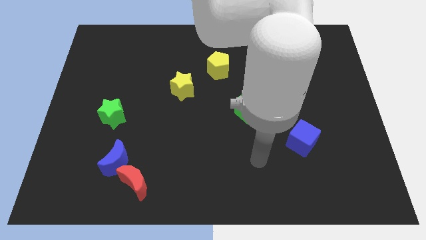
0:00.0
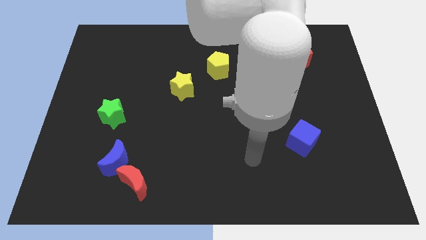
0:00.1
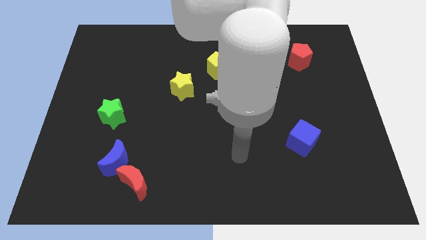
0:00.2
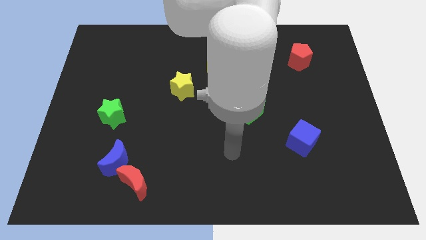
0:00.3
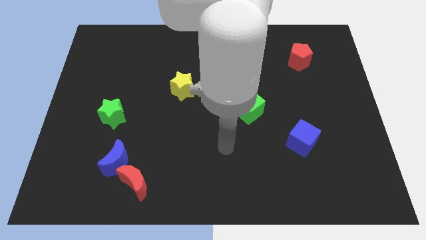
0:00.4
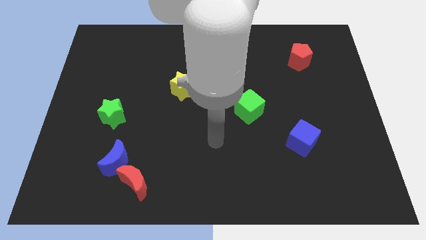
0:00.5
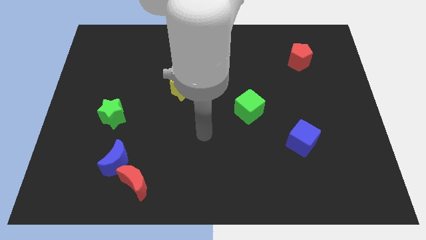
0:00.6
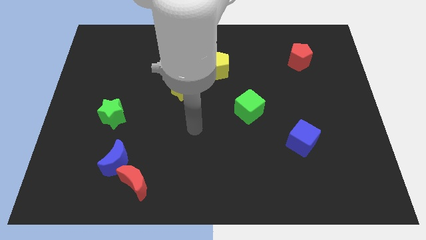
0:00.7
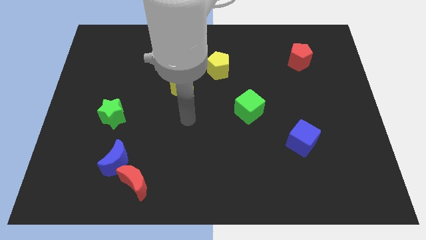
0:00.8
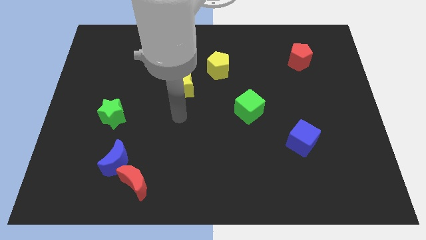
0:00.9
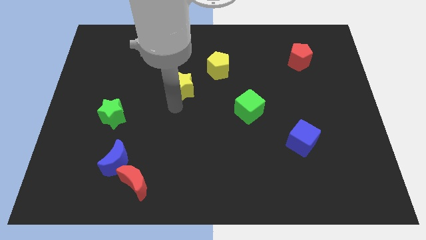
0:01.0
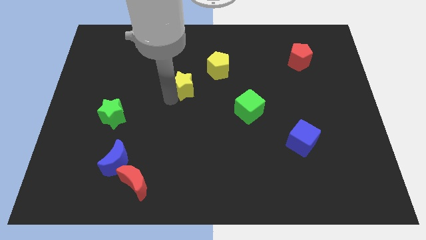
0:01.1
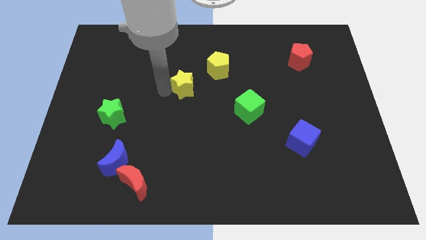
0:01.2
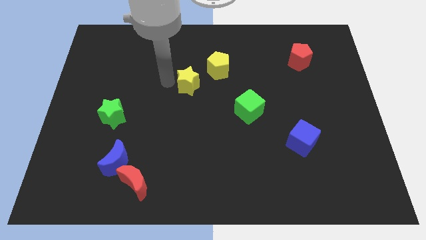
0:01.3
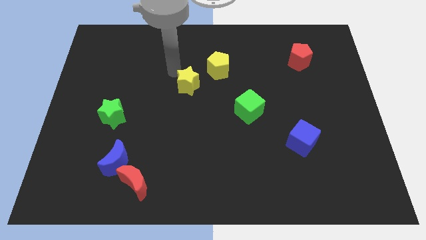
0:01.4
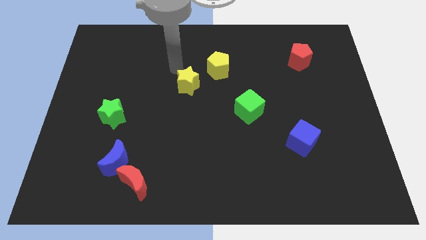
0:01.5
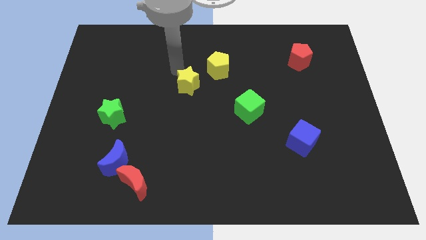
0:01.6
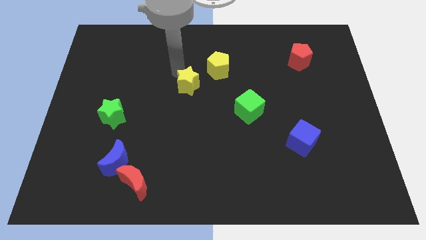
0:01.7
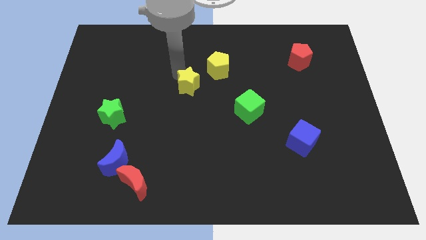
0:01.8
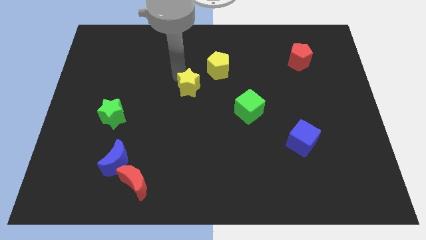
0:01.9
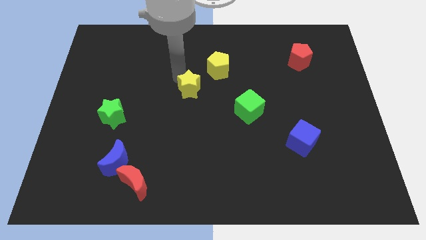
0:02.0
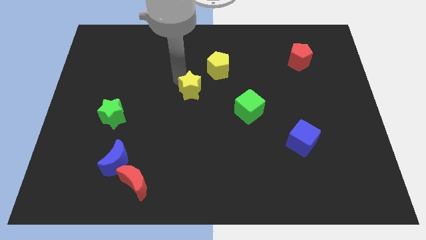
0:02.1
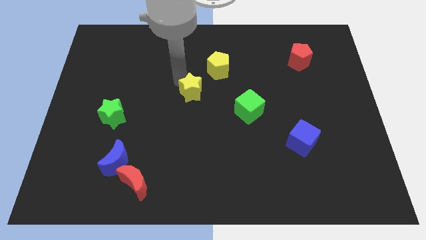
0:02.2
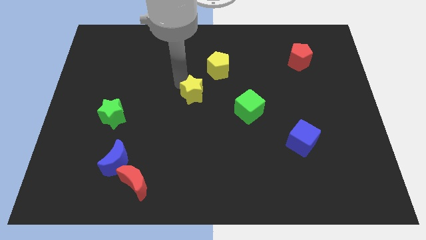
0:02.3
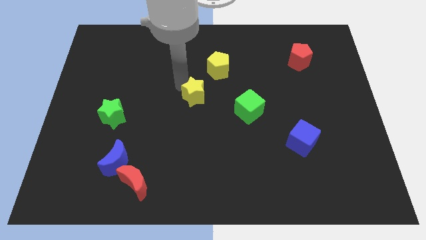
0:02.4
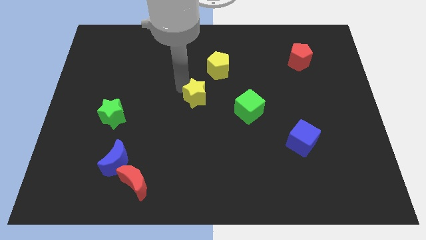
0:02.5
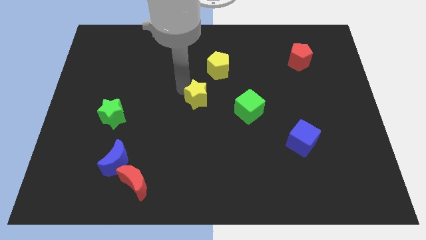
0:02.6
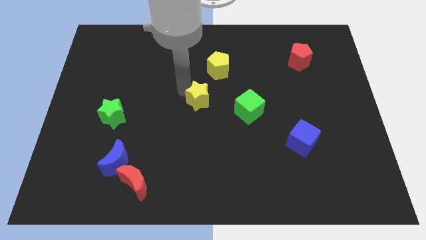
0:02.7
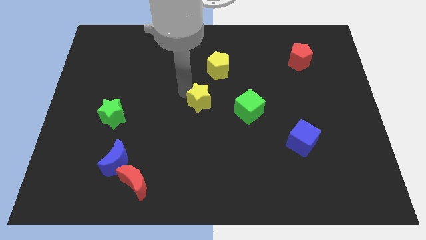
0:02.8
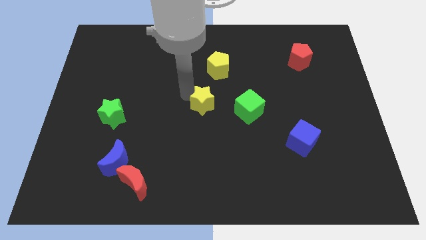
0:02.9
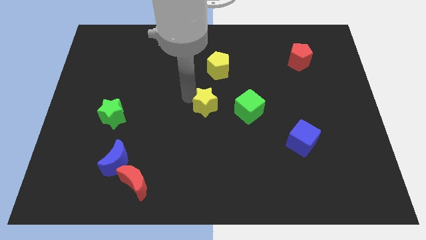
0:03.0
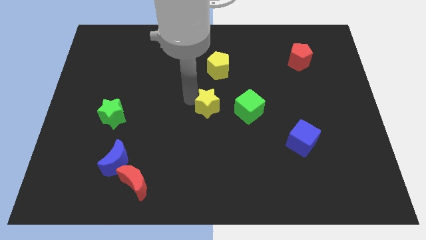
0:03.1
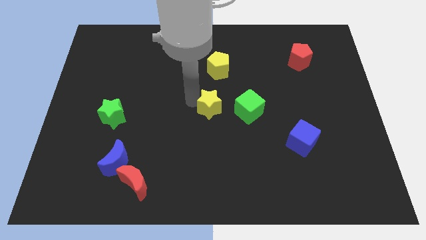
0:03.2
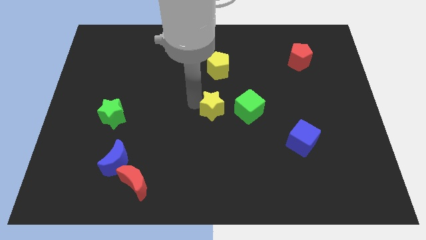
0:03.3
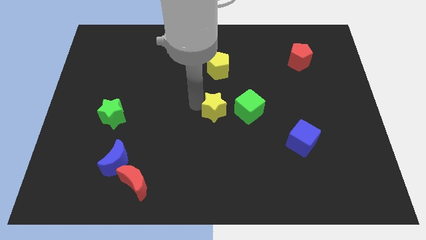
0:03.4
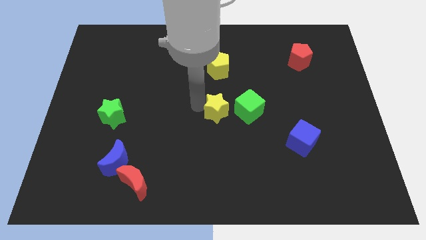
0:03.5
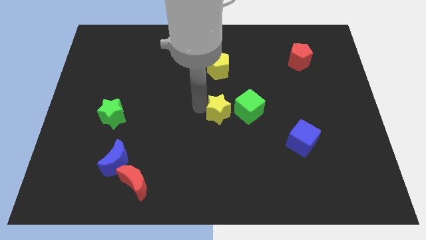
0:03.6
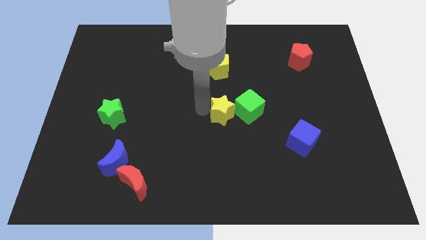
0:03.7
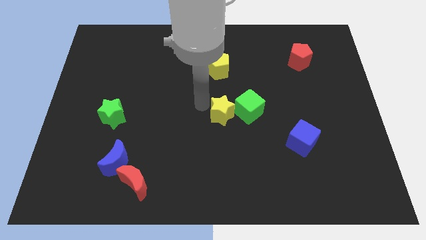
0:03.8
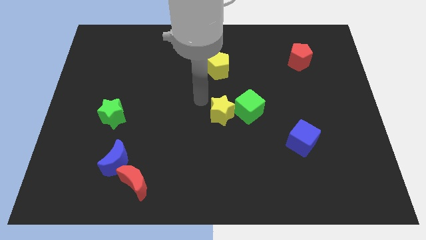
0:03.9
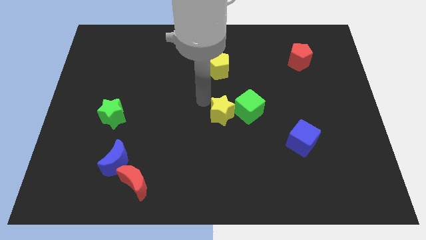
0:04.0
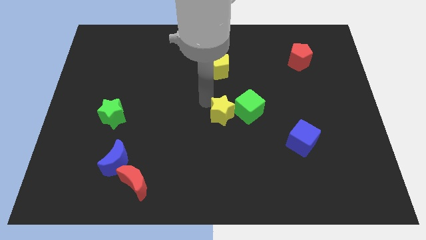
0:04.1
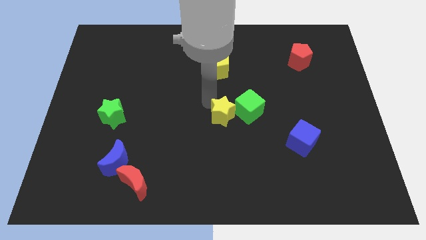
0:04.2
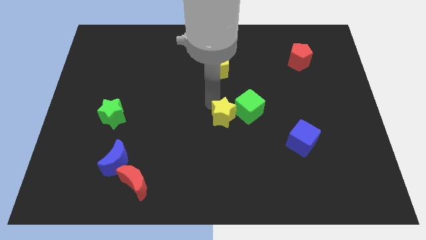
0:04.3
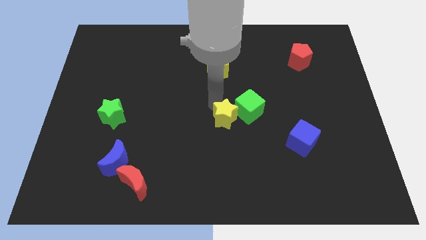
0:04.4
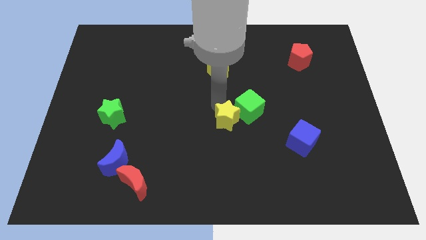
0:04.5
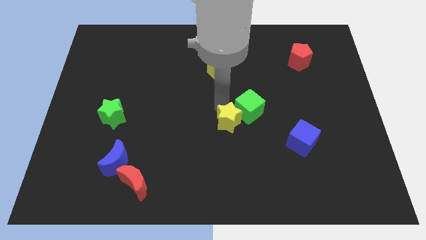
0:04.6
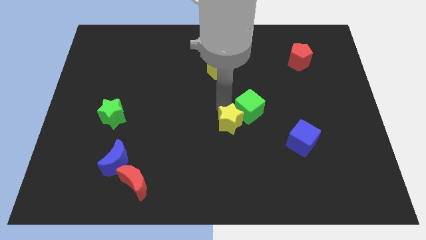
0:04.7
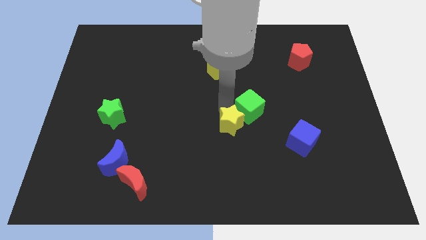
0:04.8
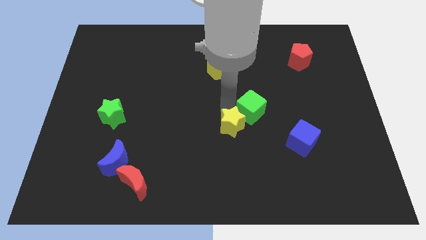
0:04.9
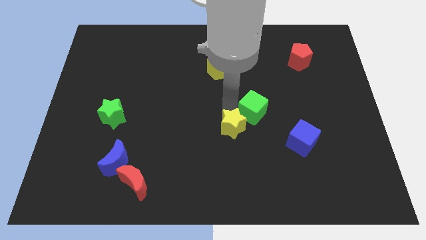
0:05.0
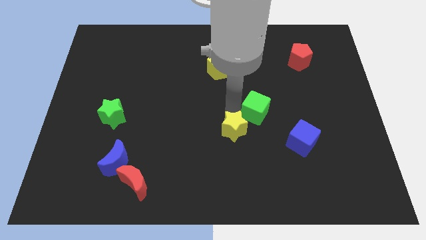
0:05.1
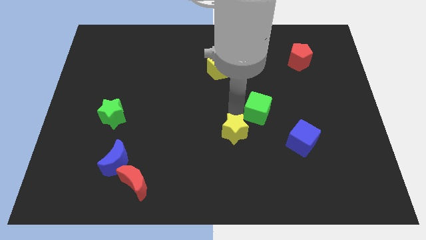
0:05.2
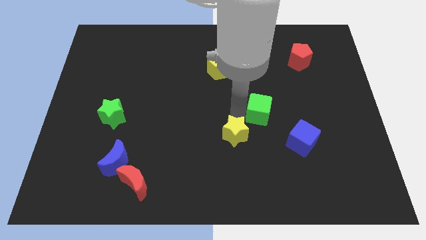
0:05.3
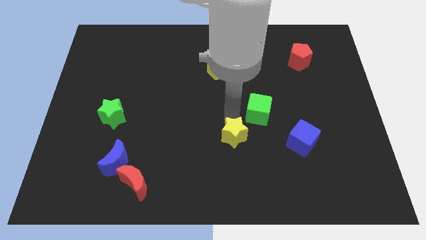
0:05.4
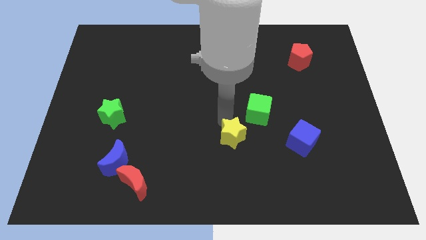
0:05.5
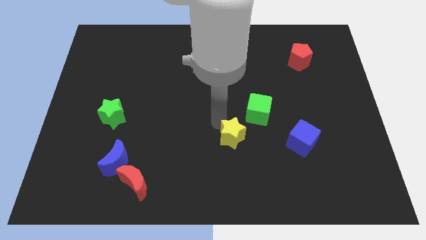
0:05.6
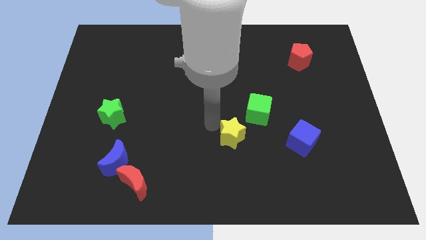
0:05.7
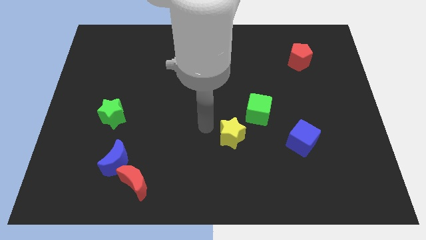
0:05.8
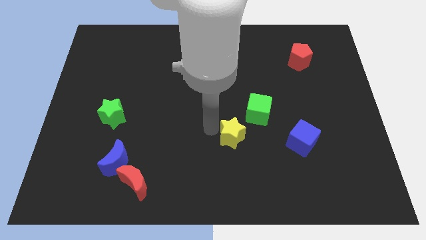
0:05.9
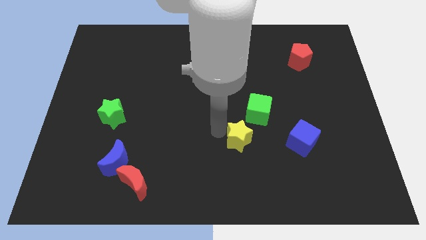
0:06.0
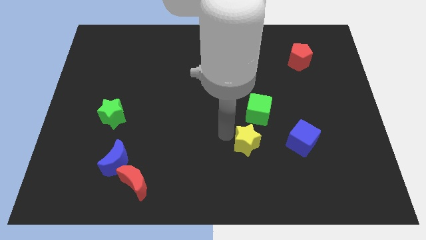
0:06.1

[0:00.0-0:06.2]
move the yellow star diagonally downwards and right

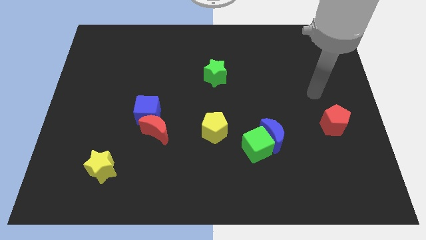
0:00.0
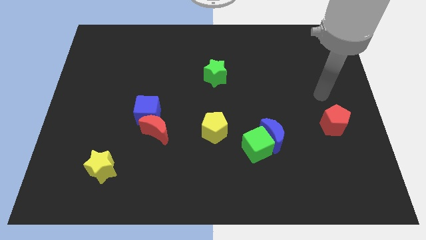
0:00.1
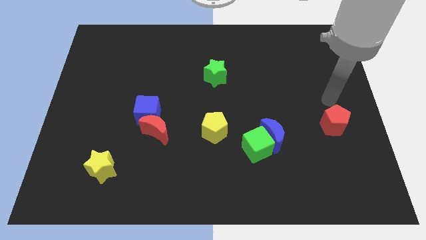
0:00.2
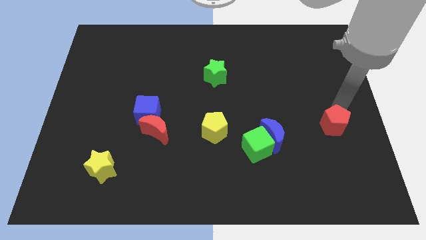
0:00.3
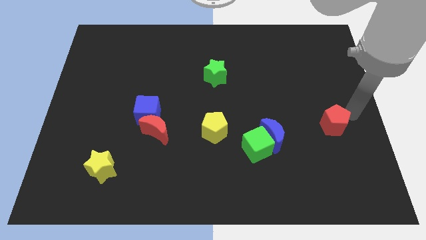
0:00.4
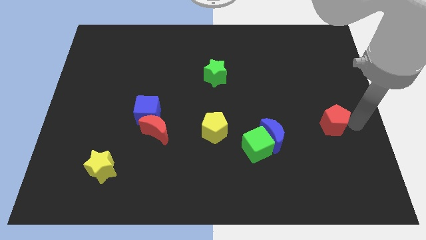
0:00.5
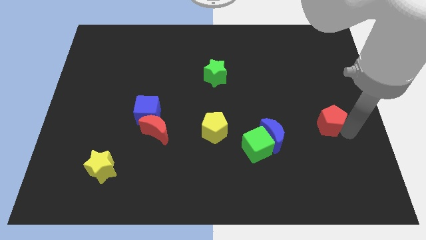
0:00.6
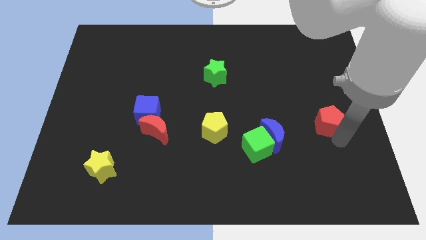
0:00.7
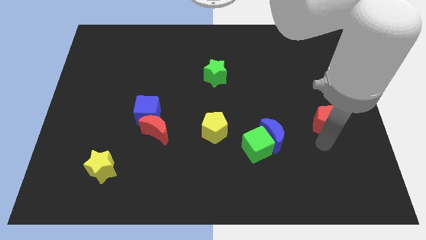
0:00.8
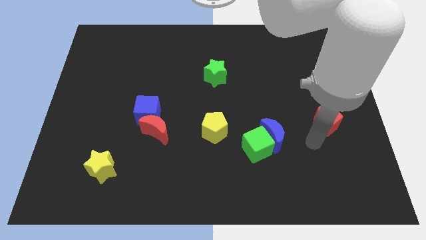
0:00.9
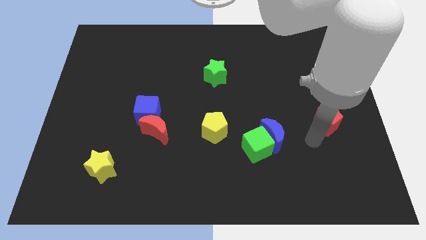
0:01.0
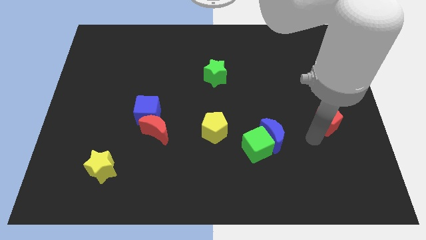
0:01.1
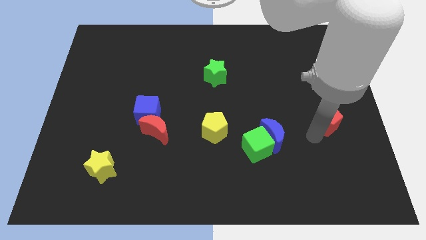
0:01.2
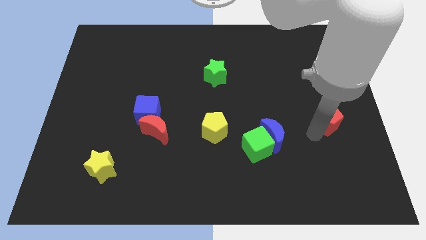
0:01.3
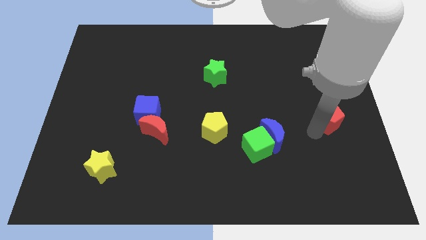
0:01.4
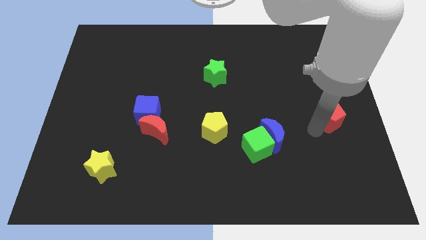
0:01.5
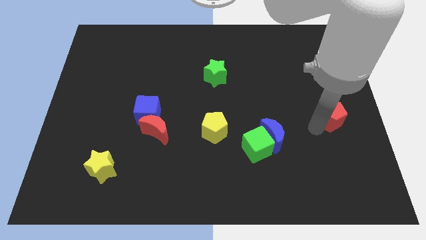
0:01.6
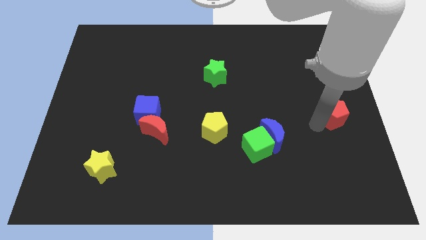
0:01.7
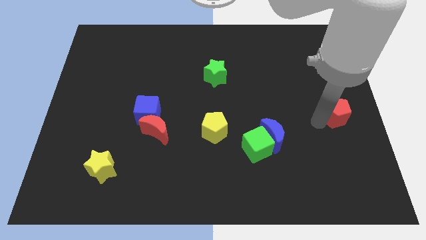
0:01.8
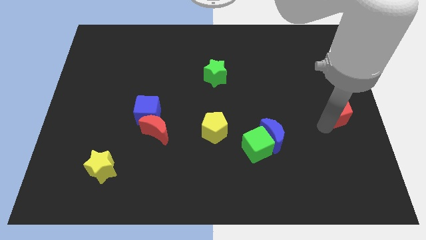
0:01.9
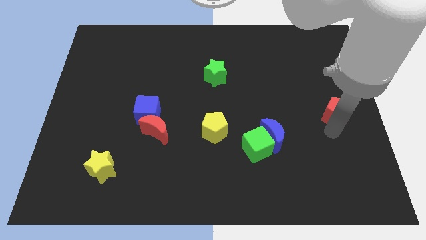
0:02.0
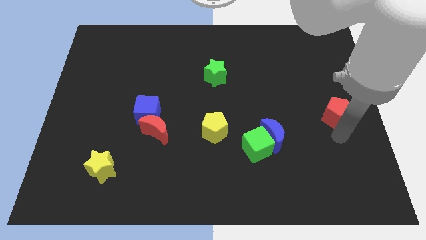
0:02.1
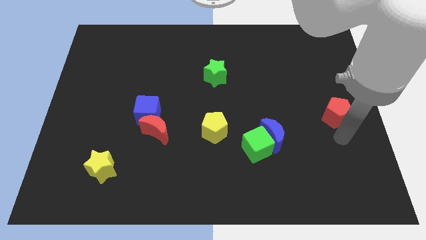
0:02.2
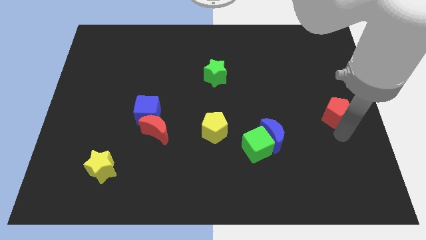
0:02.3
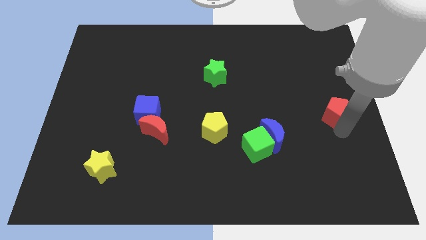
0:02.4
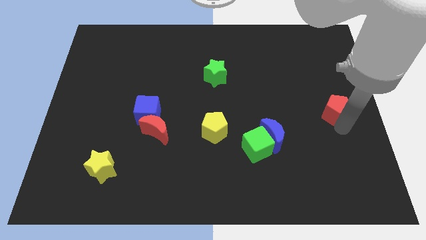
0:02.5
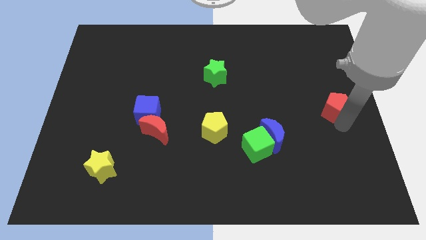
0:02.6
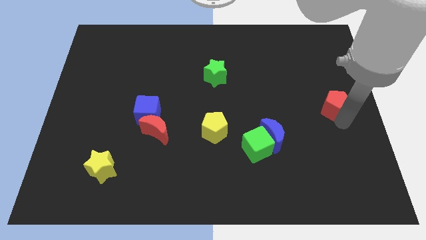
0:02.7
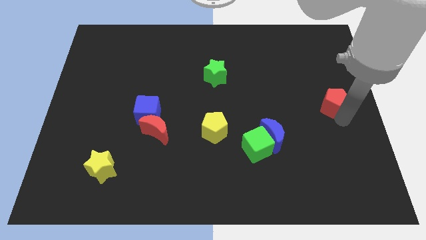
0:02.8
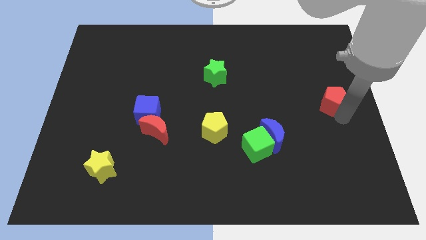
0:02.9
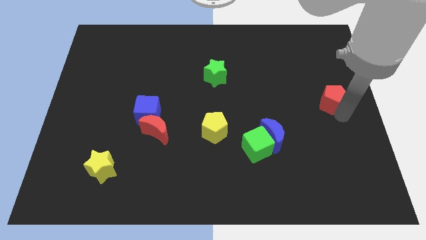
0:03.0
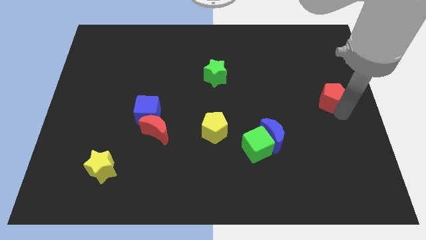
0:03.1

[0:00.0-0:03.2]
push the red pentagon somewhat upwards
